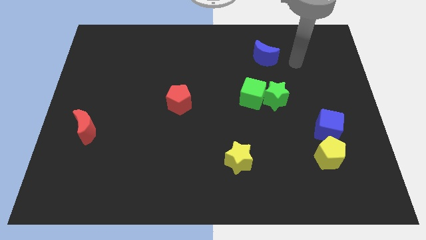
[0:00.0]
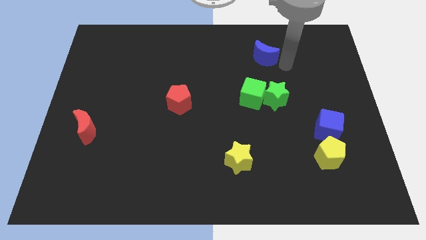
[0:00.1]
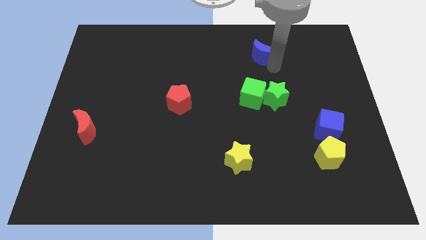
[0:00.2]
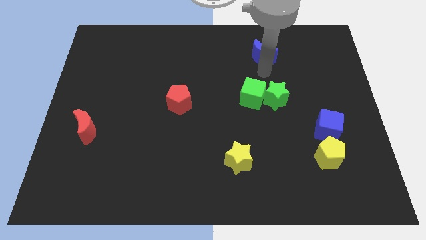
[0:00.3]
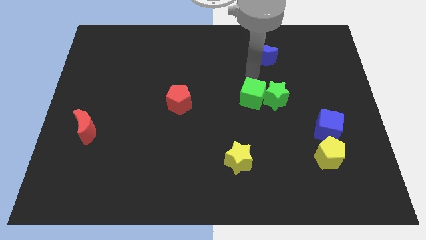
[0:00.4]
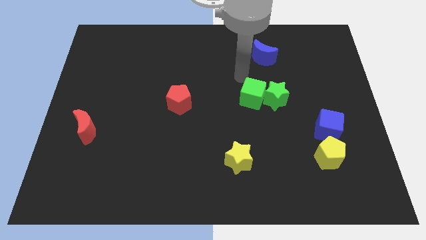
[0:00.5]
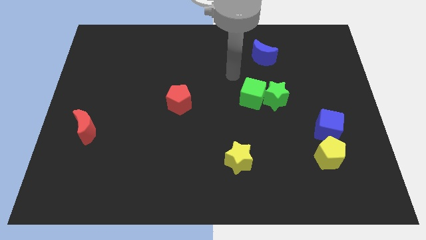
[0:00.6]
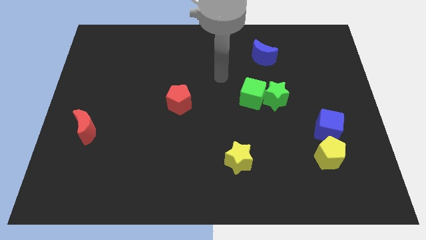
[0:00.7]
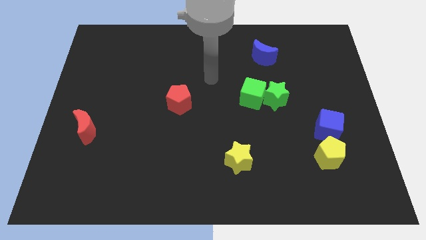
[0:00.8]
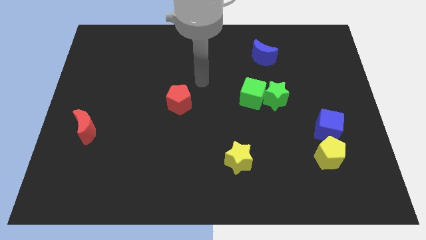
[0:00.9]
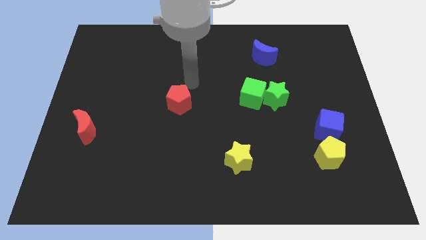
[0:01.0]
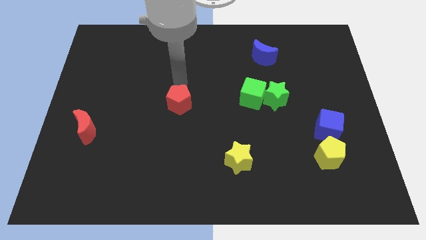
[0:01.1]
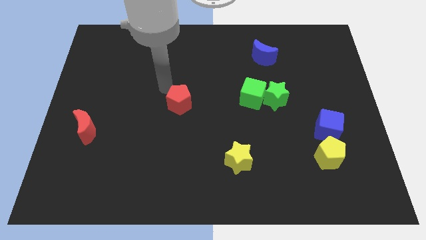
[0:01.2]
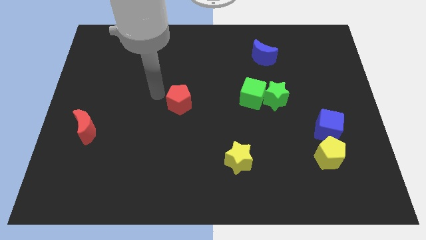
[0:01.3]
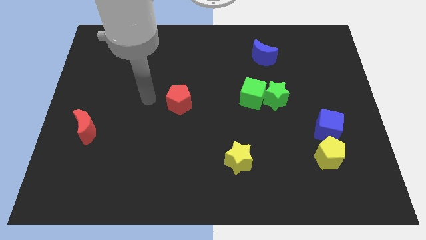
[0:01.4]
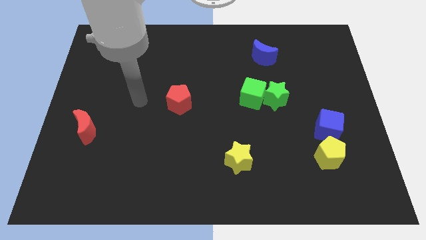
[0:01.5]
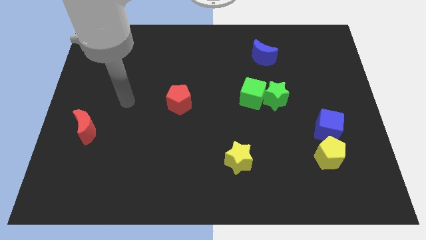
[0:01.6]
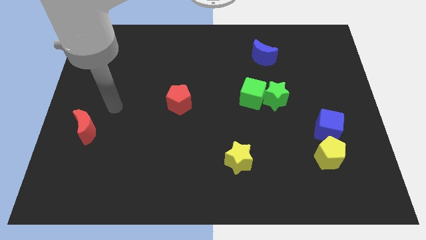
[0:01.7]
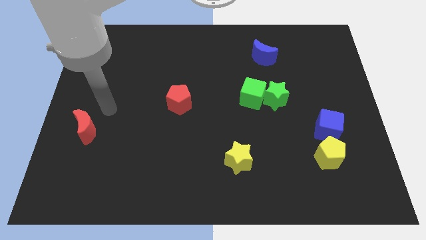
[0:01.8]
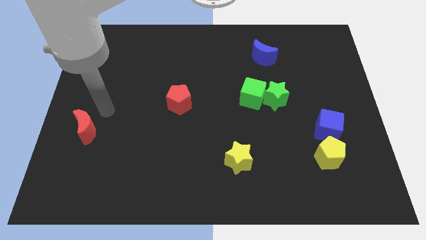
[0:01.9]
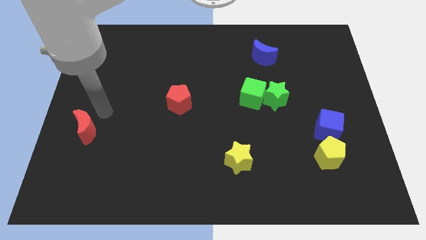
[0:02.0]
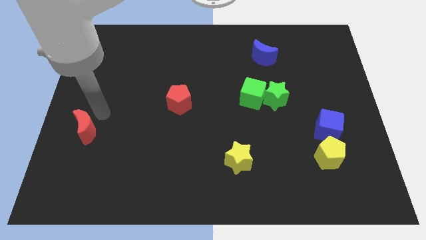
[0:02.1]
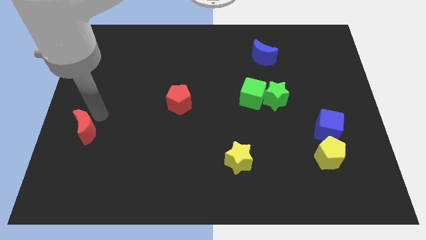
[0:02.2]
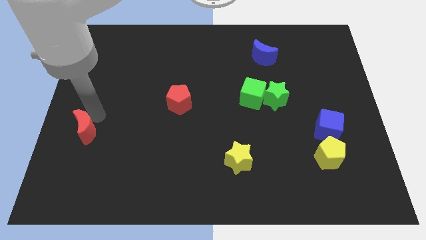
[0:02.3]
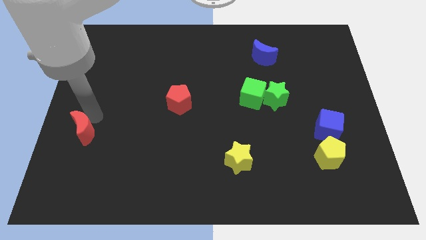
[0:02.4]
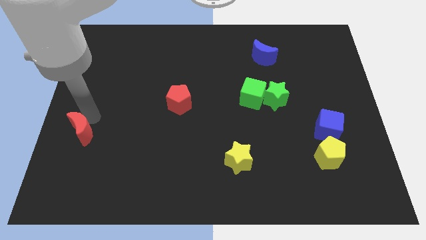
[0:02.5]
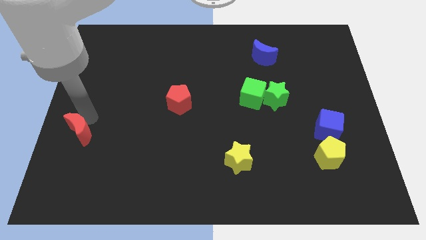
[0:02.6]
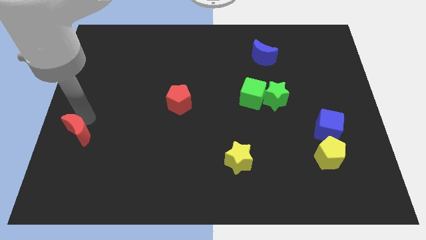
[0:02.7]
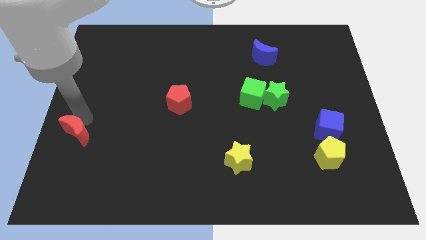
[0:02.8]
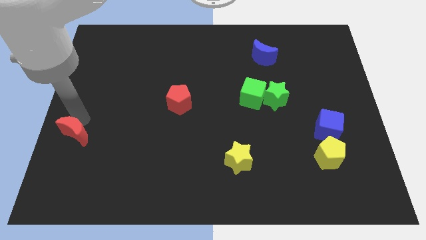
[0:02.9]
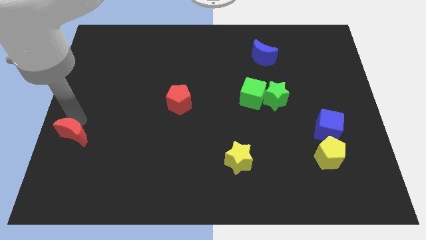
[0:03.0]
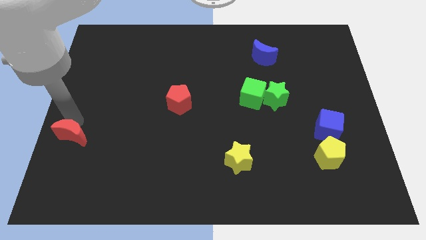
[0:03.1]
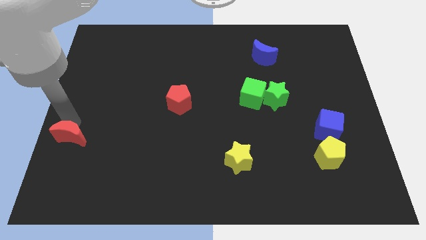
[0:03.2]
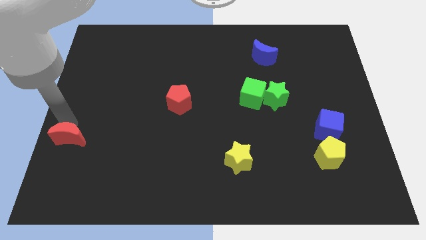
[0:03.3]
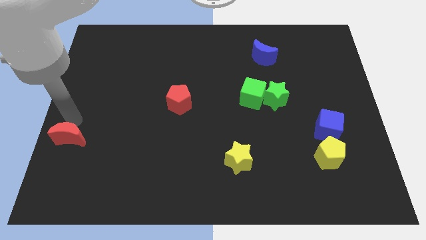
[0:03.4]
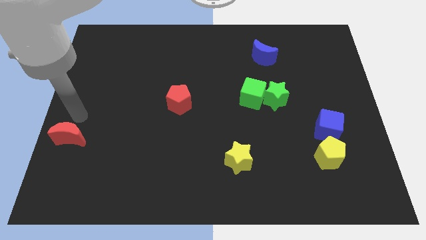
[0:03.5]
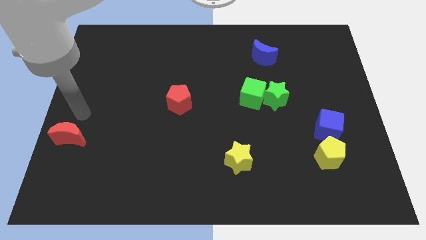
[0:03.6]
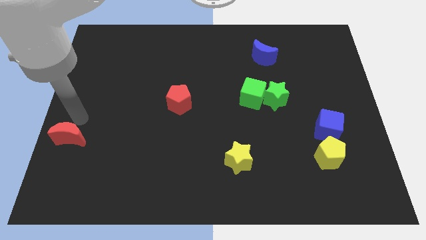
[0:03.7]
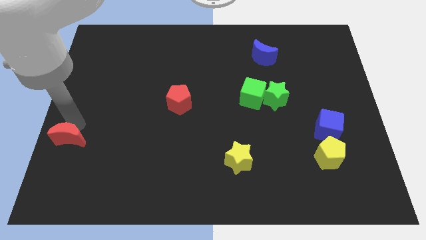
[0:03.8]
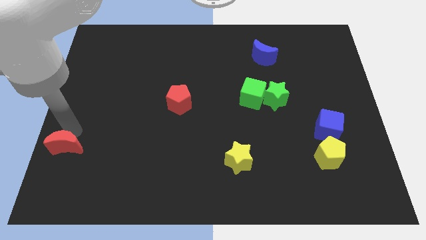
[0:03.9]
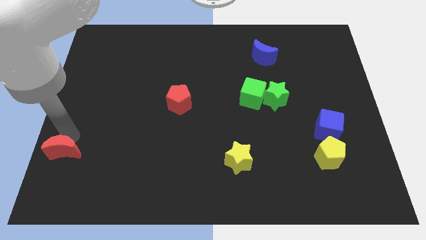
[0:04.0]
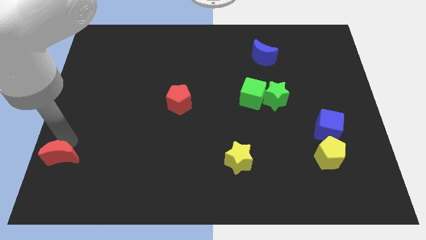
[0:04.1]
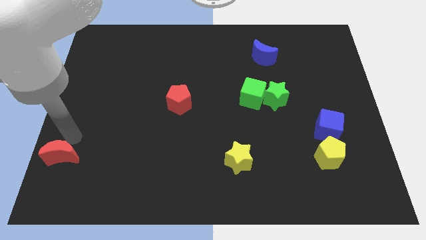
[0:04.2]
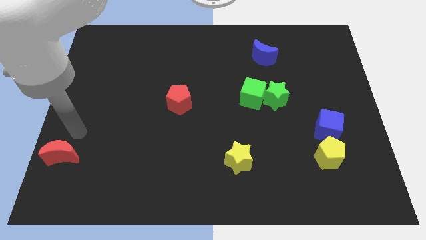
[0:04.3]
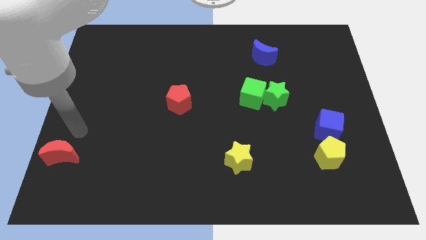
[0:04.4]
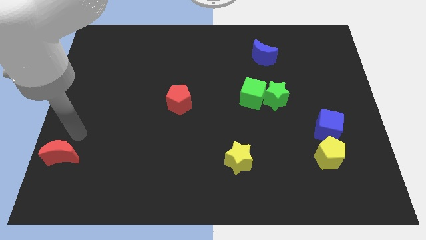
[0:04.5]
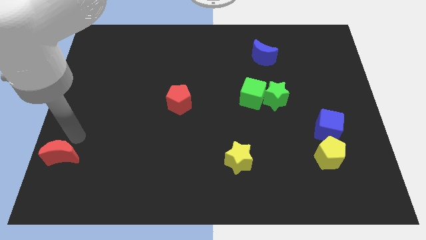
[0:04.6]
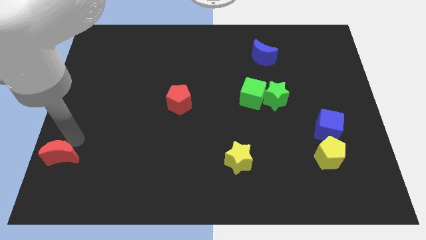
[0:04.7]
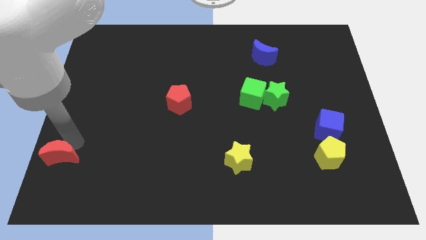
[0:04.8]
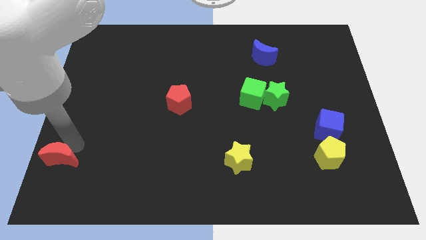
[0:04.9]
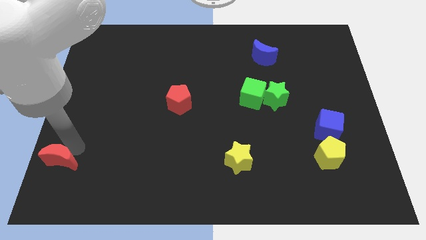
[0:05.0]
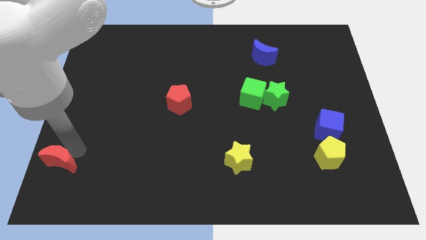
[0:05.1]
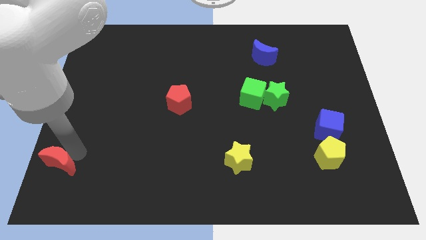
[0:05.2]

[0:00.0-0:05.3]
push the red moon to the bottom left corner

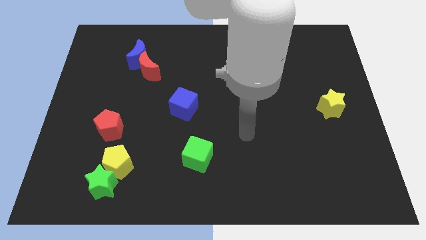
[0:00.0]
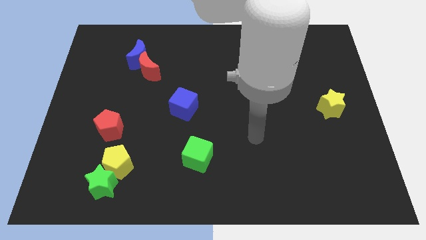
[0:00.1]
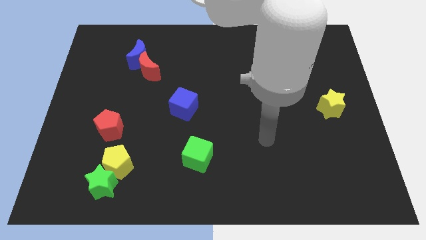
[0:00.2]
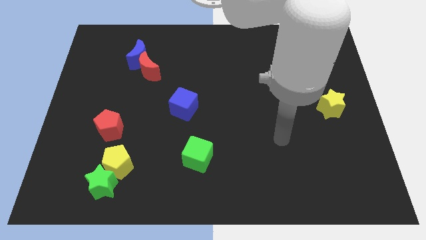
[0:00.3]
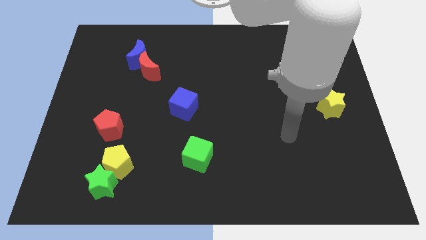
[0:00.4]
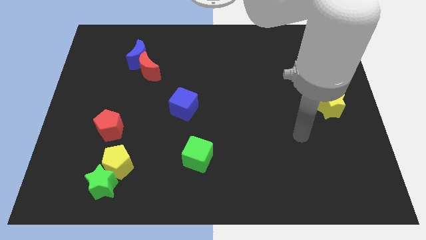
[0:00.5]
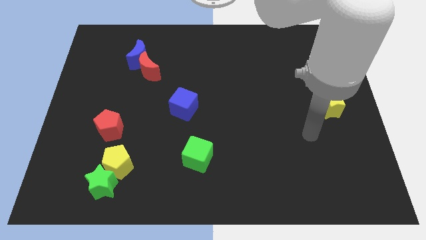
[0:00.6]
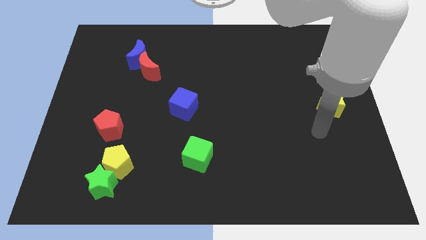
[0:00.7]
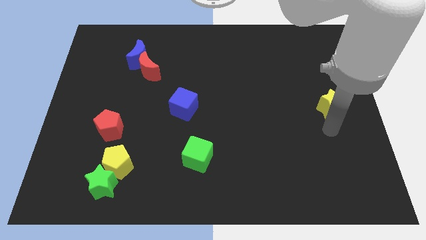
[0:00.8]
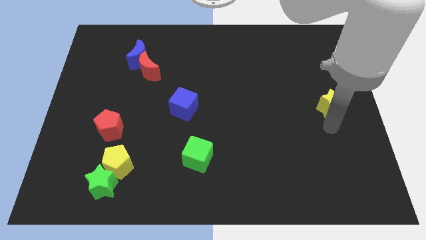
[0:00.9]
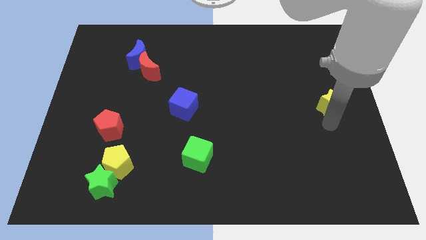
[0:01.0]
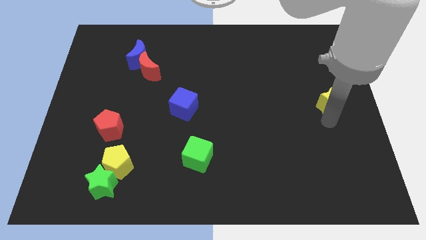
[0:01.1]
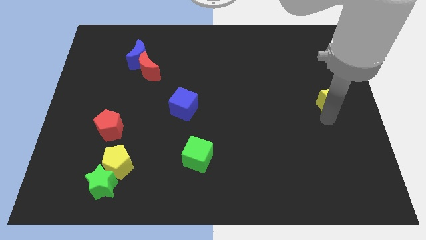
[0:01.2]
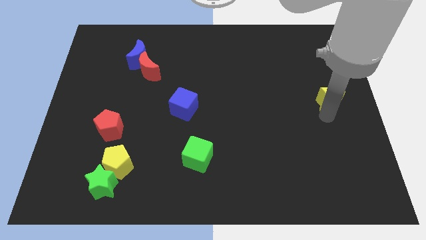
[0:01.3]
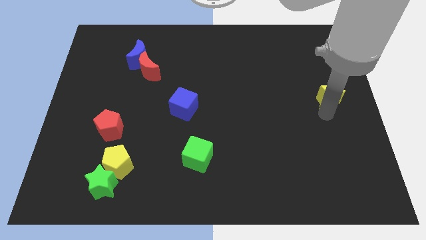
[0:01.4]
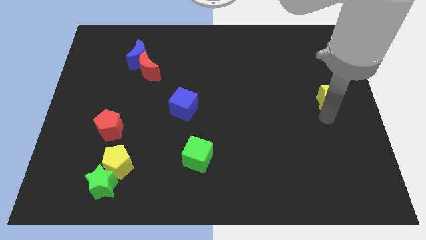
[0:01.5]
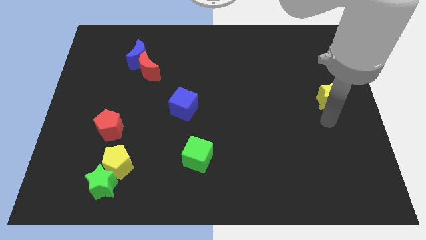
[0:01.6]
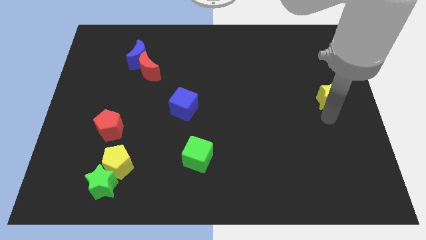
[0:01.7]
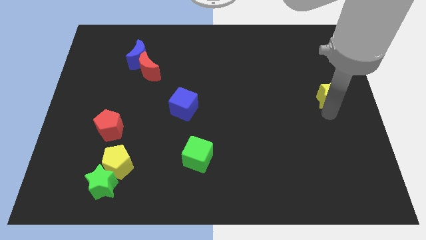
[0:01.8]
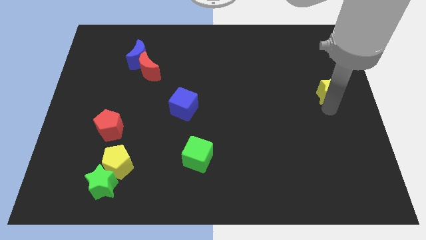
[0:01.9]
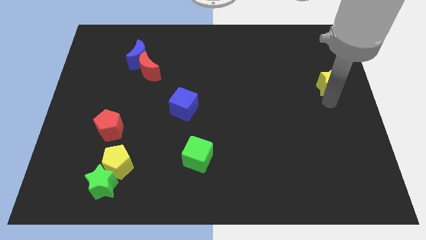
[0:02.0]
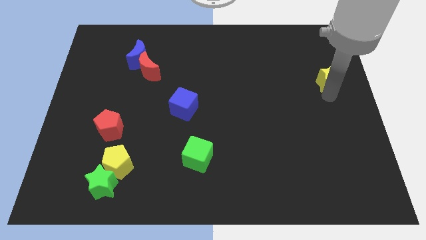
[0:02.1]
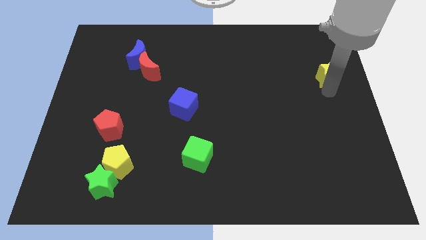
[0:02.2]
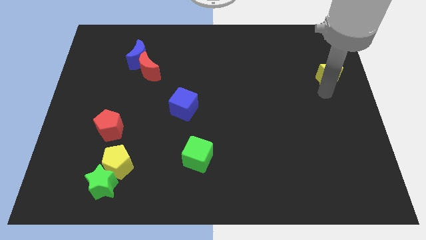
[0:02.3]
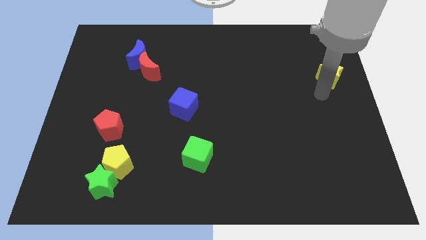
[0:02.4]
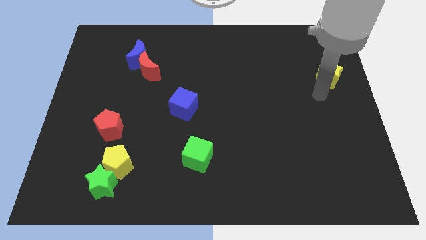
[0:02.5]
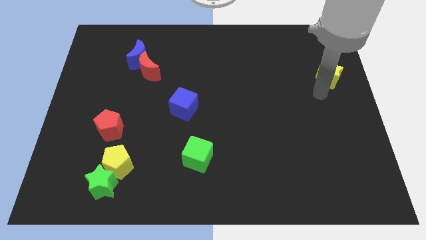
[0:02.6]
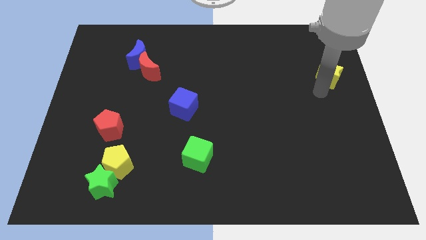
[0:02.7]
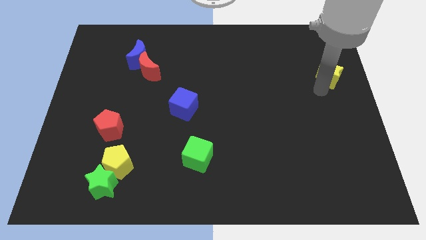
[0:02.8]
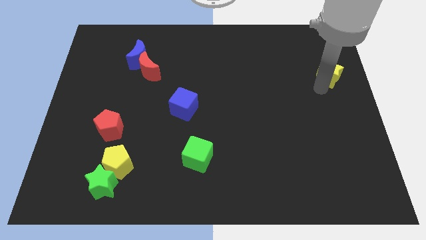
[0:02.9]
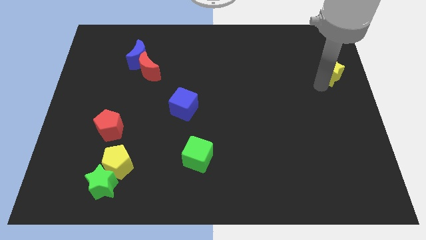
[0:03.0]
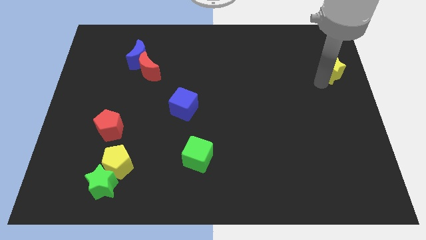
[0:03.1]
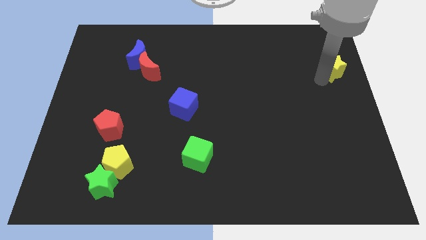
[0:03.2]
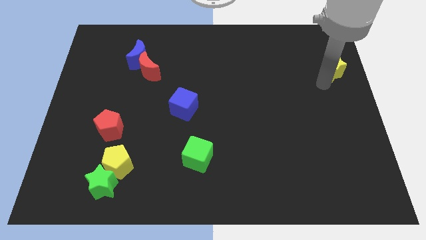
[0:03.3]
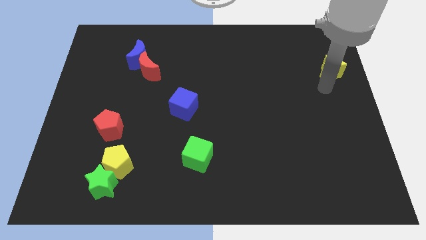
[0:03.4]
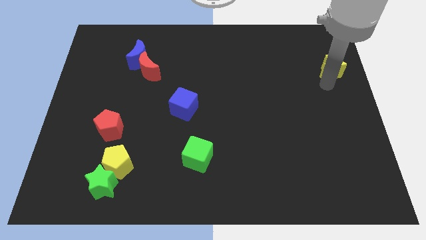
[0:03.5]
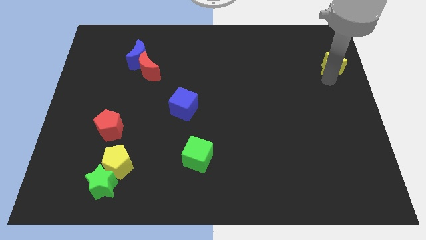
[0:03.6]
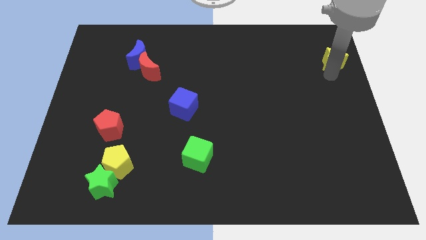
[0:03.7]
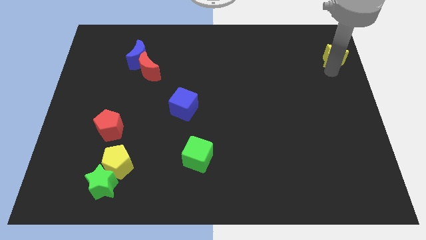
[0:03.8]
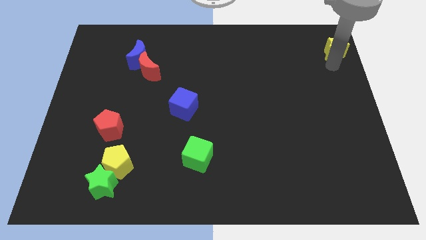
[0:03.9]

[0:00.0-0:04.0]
push the yellow star to the upper right corner
